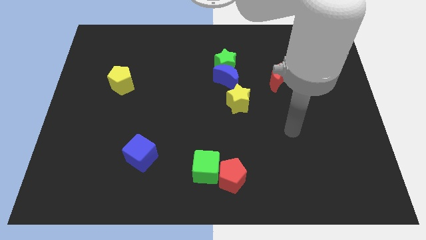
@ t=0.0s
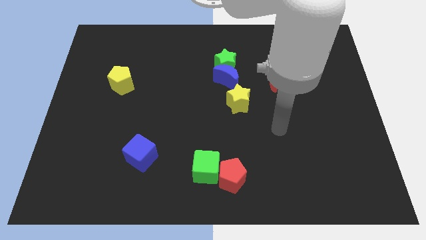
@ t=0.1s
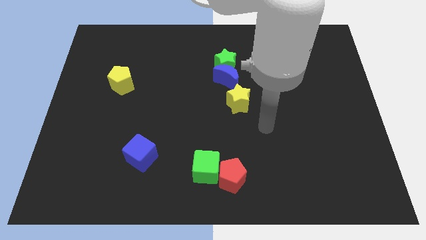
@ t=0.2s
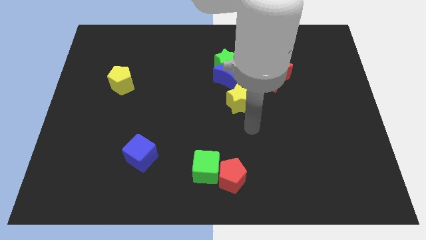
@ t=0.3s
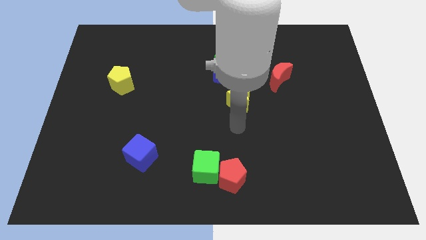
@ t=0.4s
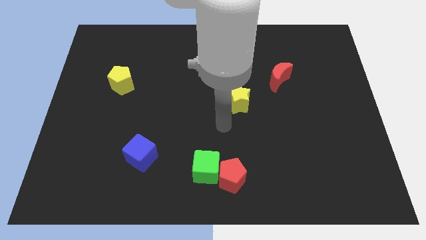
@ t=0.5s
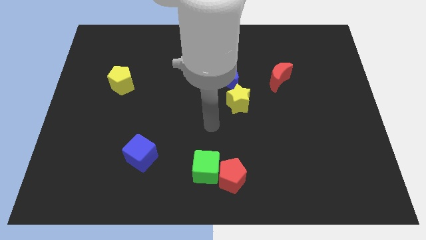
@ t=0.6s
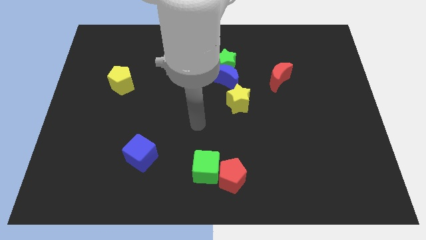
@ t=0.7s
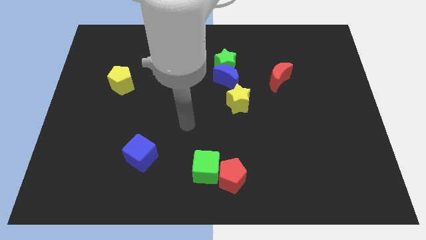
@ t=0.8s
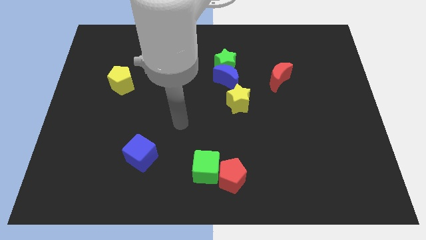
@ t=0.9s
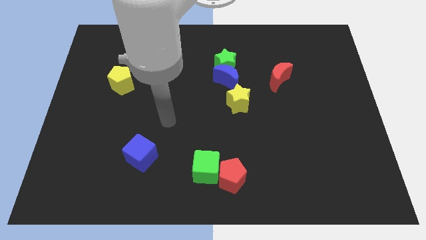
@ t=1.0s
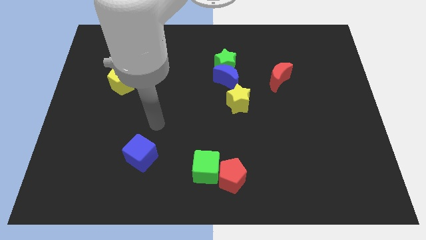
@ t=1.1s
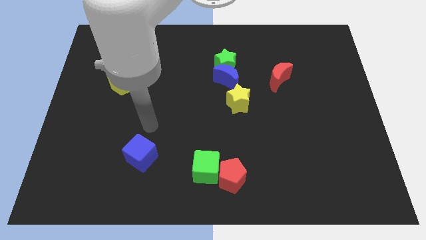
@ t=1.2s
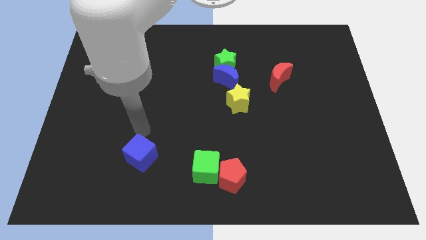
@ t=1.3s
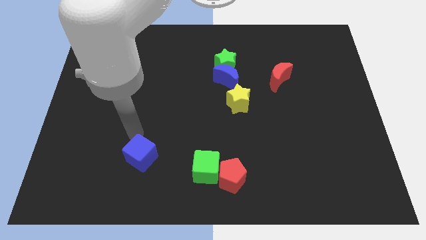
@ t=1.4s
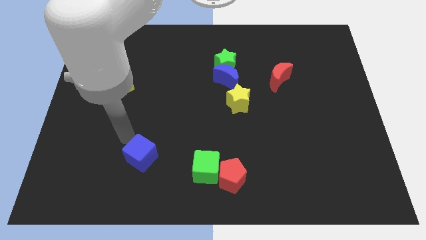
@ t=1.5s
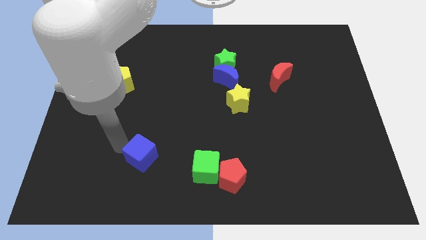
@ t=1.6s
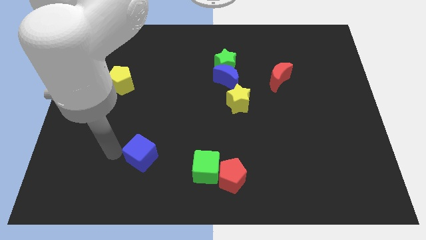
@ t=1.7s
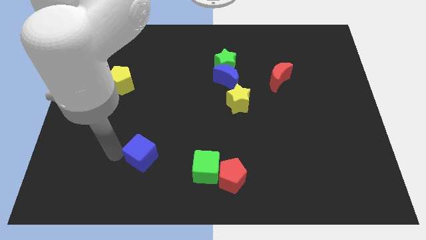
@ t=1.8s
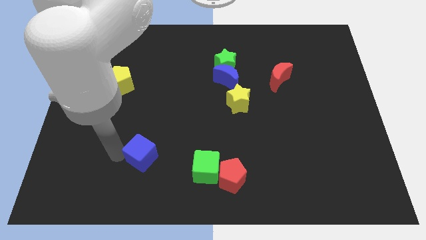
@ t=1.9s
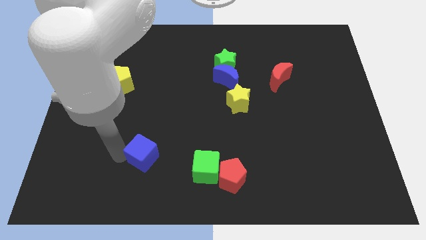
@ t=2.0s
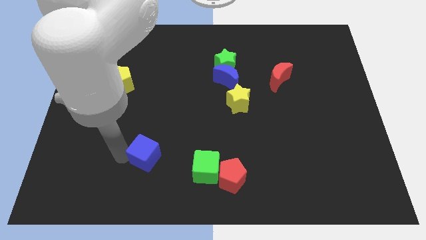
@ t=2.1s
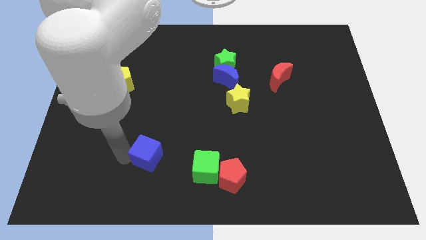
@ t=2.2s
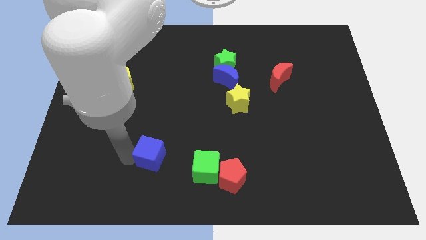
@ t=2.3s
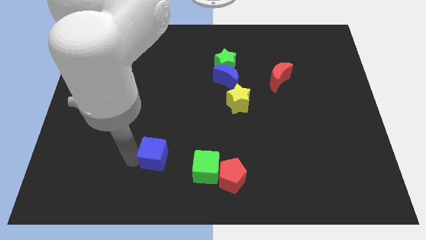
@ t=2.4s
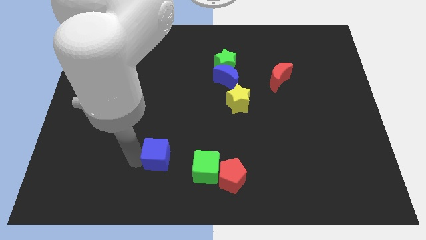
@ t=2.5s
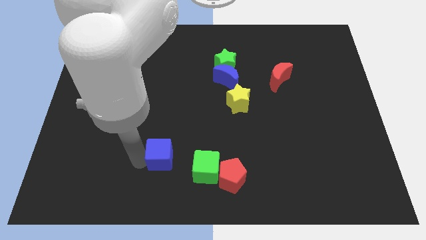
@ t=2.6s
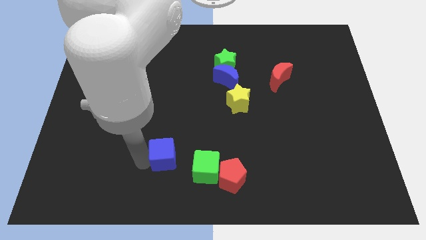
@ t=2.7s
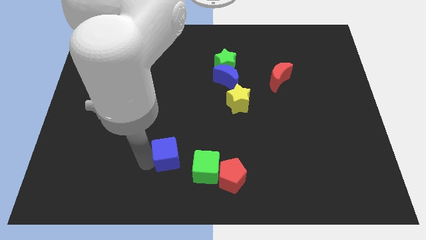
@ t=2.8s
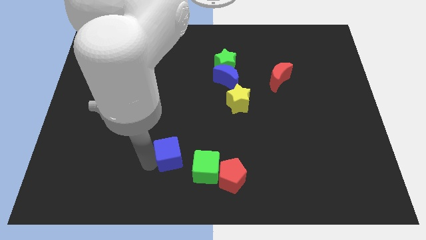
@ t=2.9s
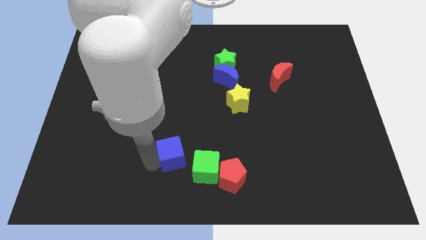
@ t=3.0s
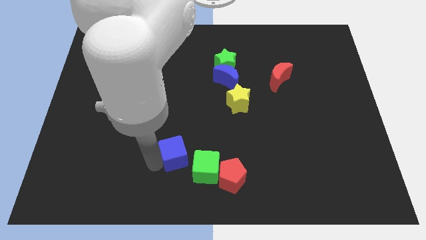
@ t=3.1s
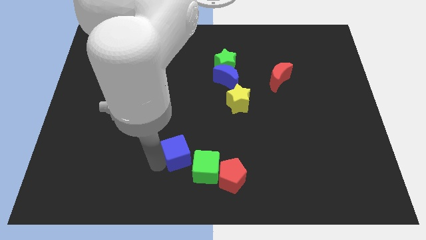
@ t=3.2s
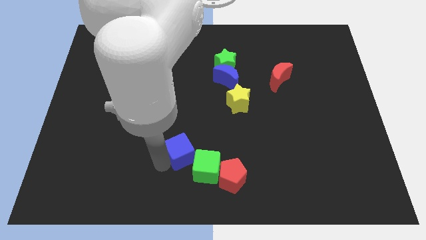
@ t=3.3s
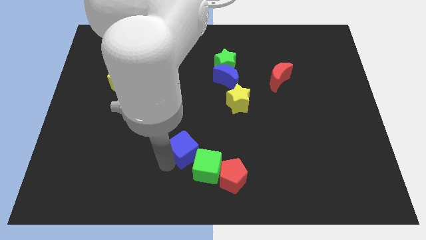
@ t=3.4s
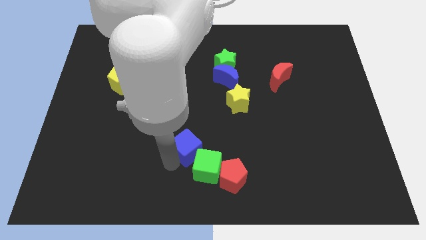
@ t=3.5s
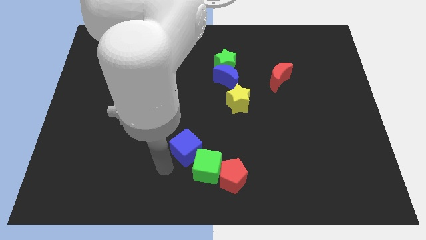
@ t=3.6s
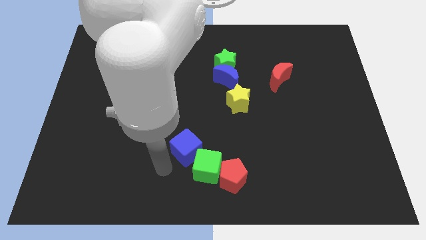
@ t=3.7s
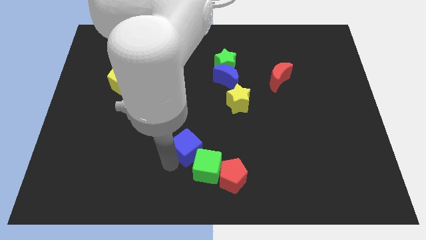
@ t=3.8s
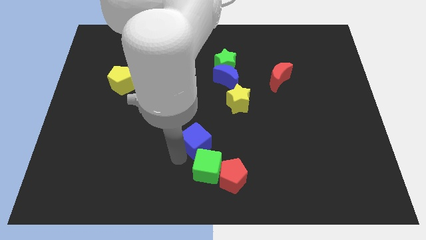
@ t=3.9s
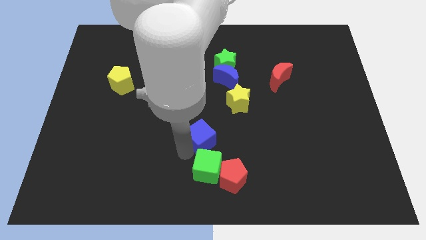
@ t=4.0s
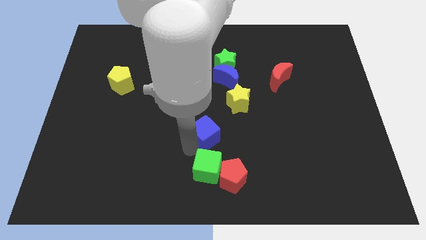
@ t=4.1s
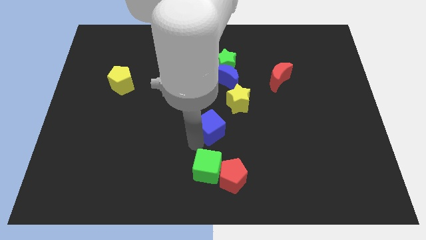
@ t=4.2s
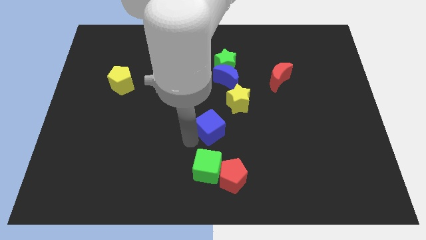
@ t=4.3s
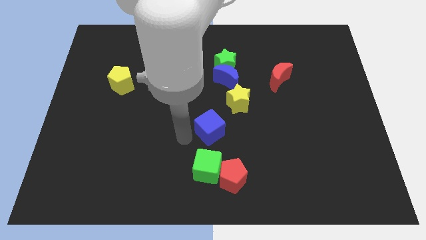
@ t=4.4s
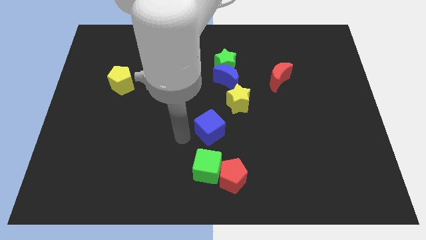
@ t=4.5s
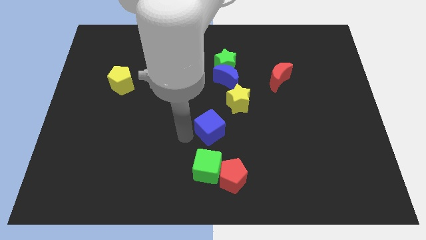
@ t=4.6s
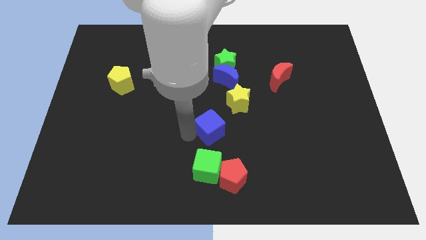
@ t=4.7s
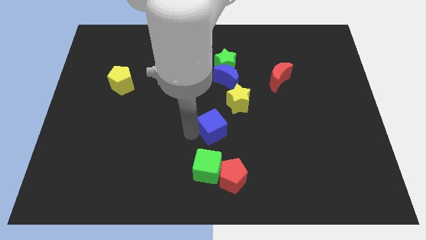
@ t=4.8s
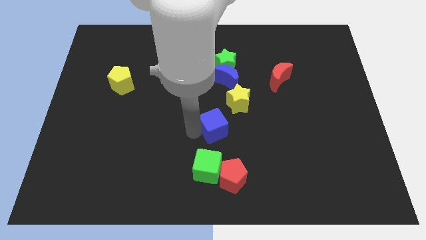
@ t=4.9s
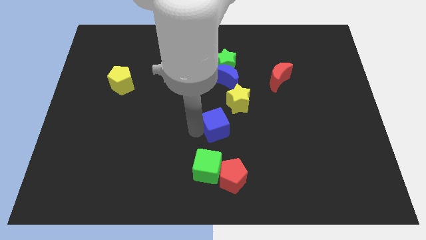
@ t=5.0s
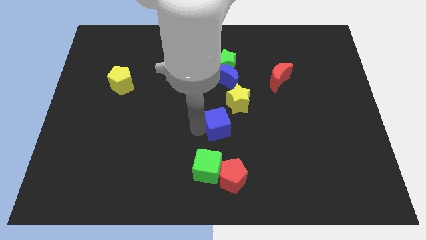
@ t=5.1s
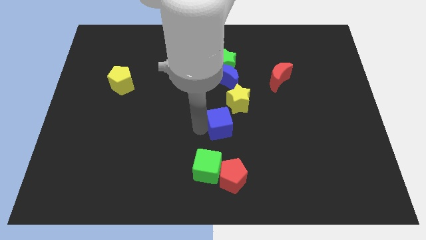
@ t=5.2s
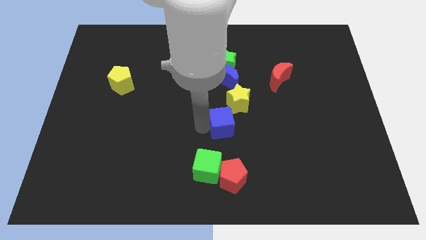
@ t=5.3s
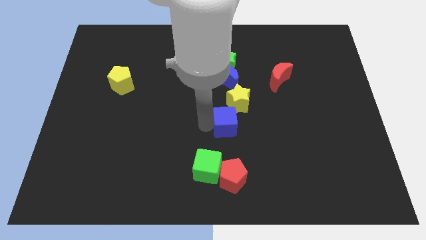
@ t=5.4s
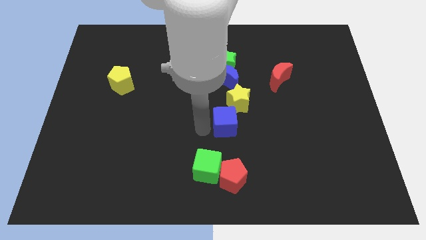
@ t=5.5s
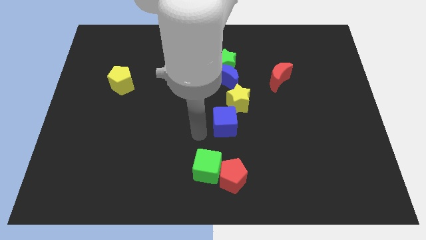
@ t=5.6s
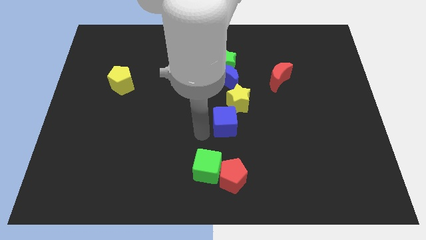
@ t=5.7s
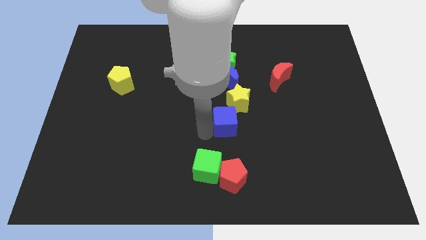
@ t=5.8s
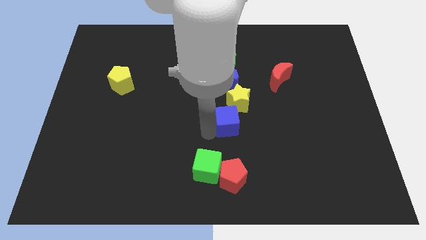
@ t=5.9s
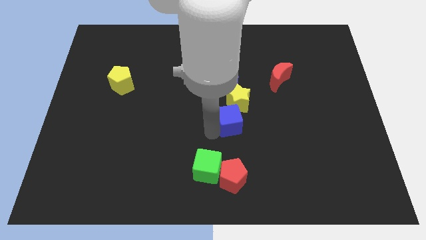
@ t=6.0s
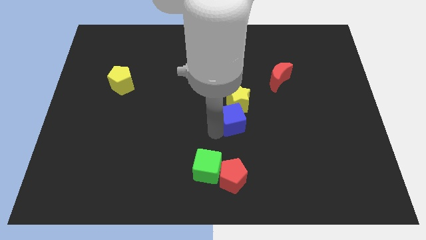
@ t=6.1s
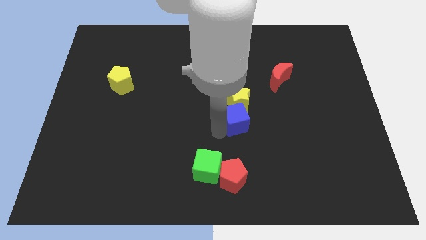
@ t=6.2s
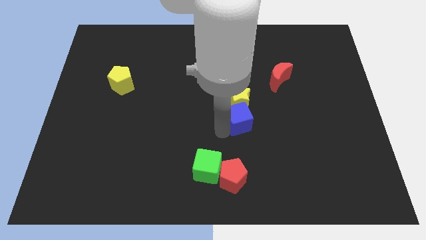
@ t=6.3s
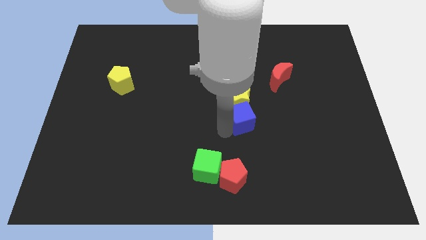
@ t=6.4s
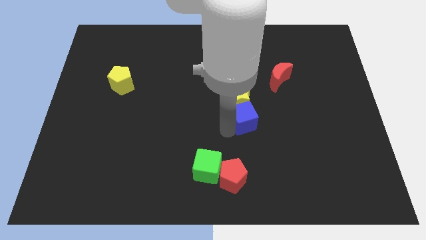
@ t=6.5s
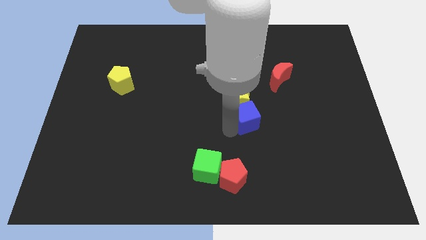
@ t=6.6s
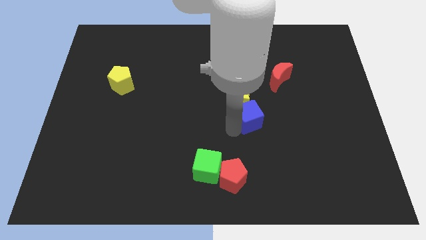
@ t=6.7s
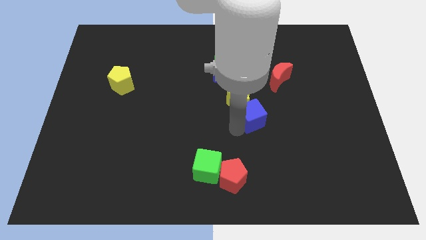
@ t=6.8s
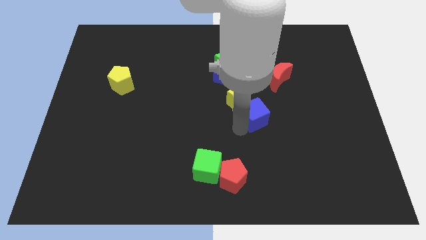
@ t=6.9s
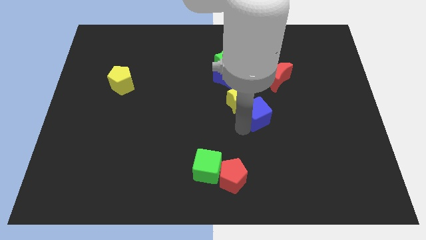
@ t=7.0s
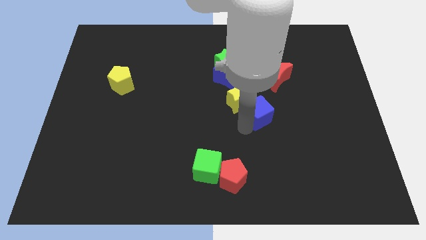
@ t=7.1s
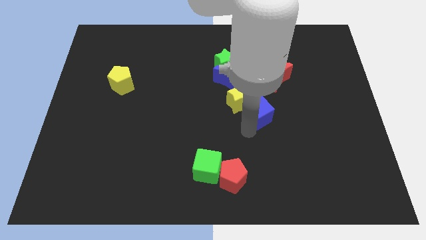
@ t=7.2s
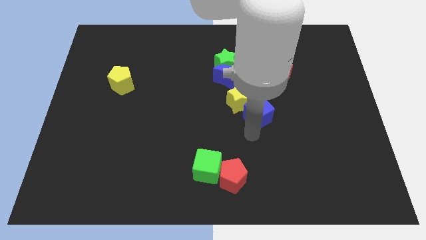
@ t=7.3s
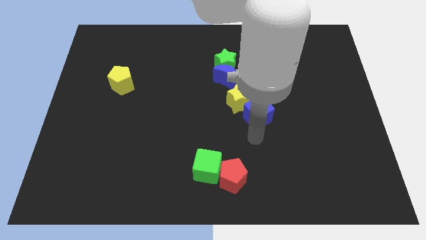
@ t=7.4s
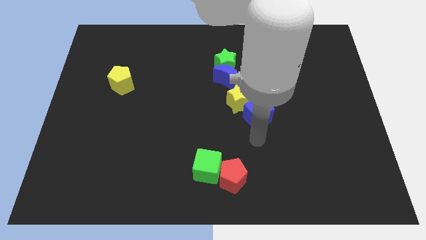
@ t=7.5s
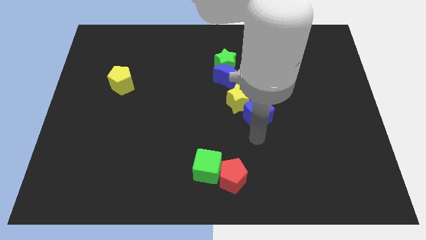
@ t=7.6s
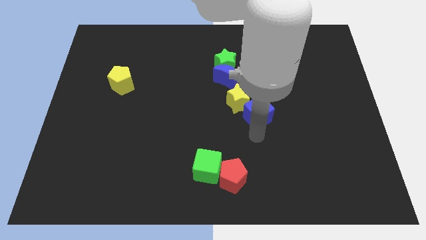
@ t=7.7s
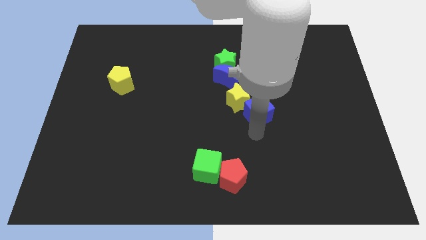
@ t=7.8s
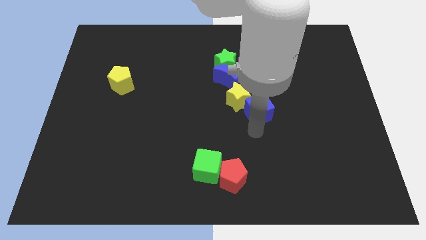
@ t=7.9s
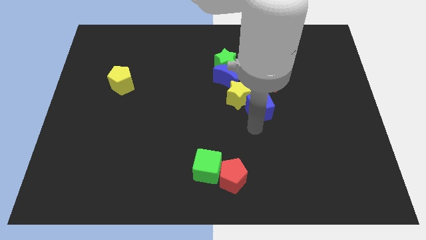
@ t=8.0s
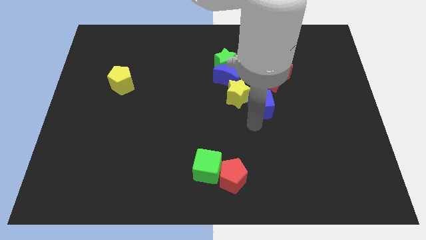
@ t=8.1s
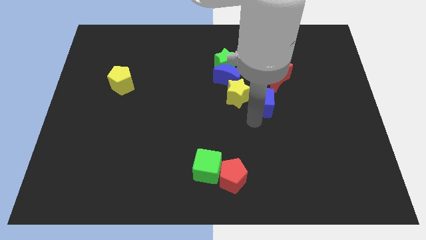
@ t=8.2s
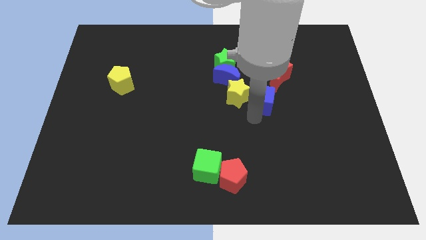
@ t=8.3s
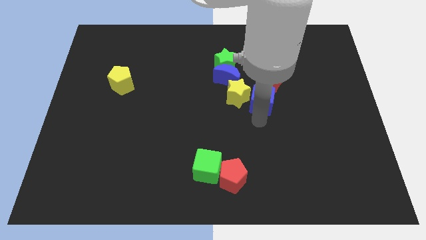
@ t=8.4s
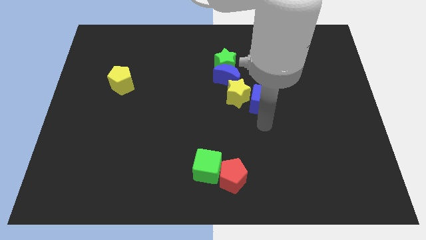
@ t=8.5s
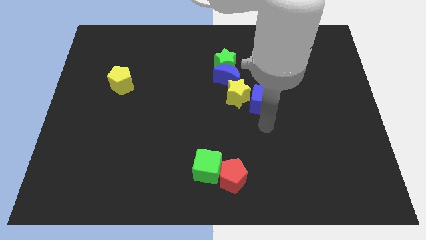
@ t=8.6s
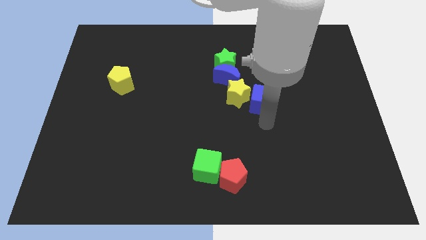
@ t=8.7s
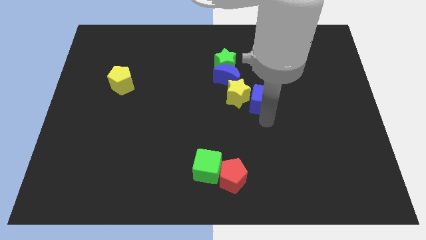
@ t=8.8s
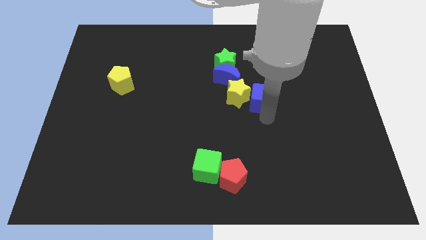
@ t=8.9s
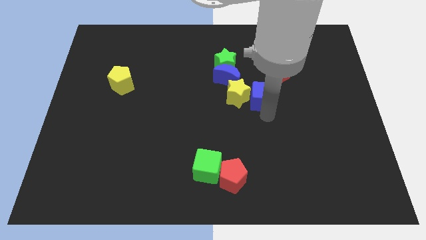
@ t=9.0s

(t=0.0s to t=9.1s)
push the blue cube to the top right side of the yellow star
